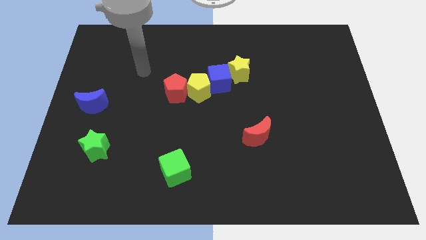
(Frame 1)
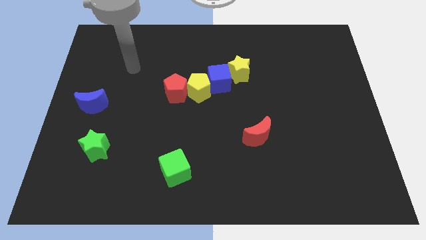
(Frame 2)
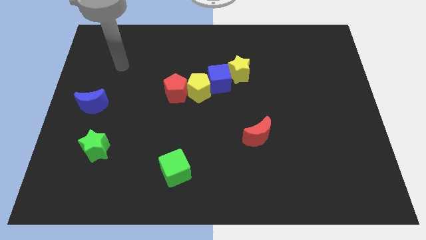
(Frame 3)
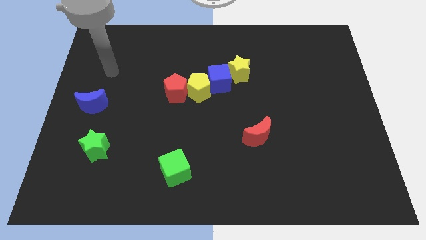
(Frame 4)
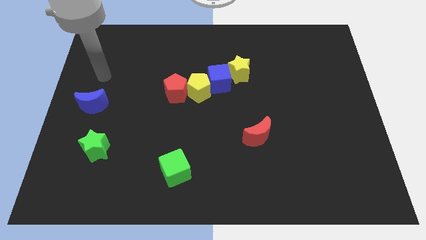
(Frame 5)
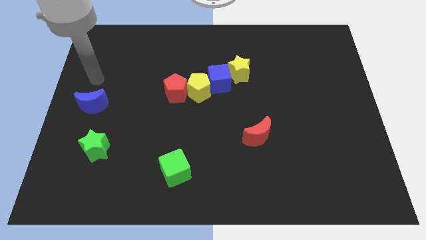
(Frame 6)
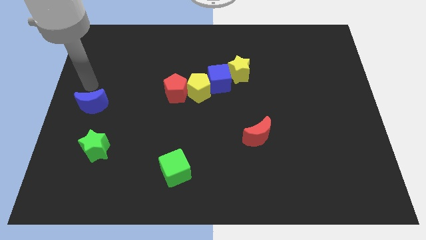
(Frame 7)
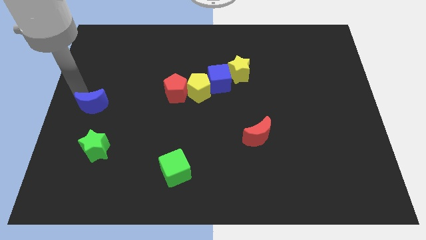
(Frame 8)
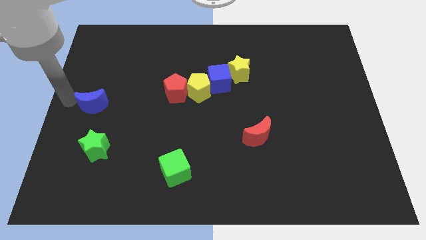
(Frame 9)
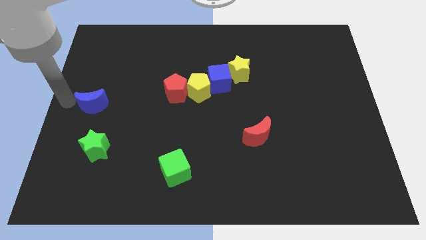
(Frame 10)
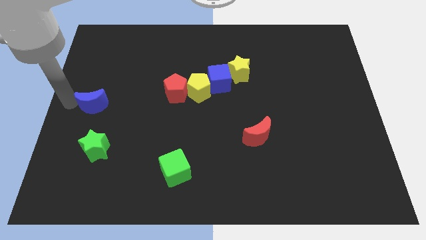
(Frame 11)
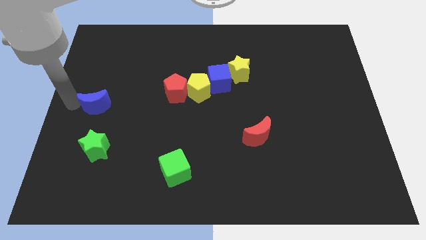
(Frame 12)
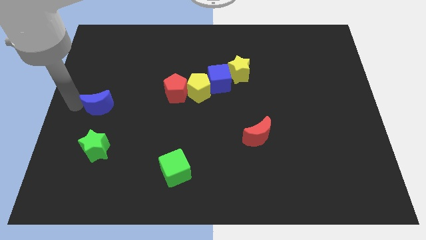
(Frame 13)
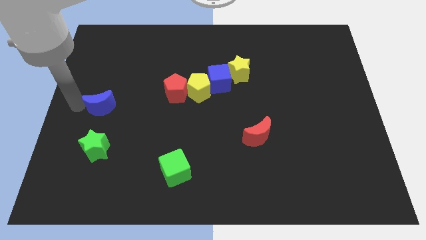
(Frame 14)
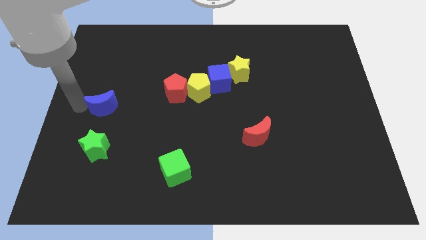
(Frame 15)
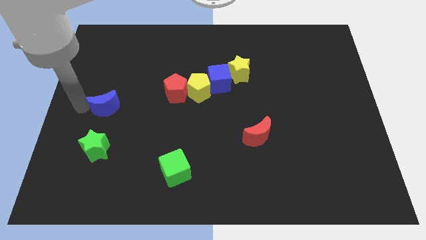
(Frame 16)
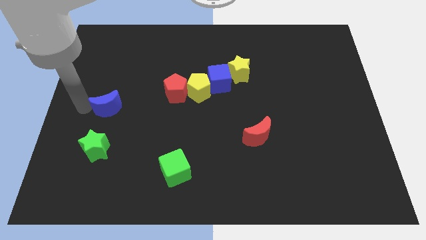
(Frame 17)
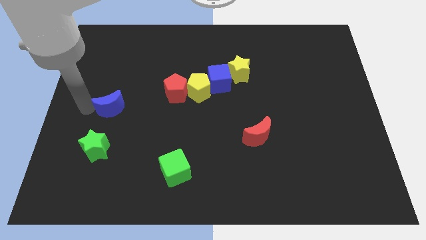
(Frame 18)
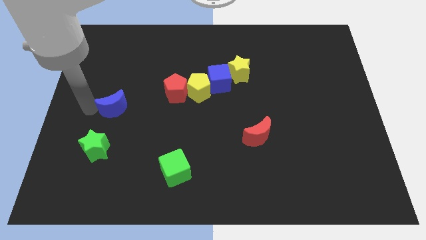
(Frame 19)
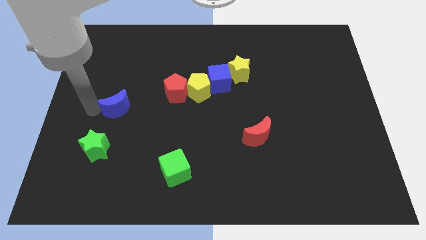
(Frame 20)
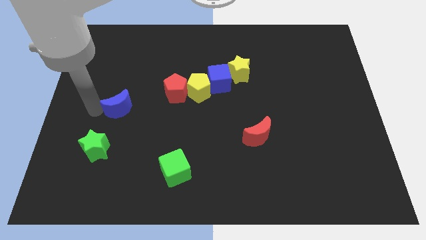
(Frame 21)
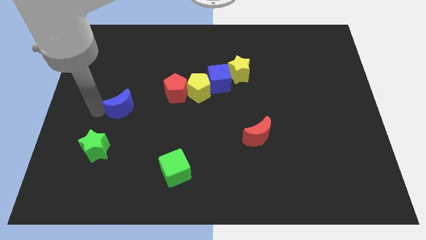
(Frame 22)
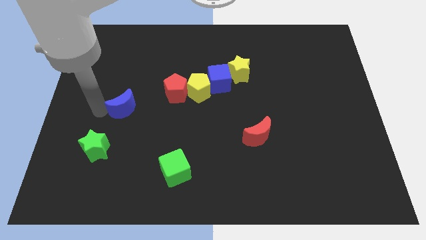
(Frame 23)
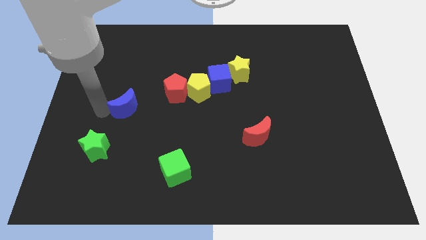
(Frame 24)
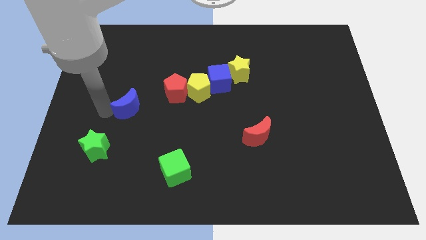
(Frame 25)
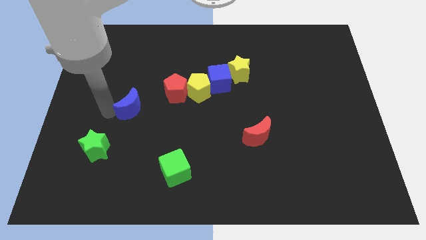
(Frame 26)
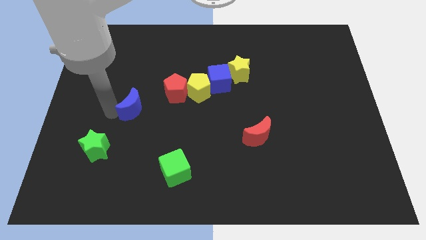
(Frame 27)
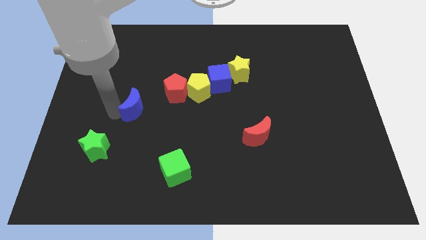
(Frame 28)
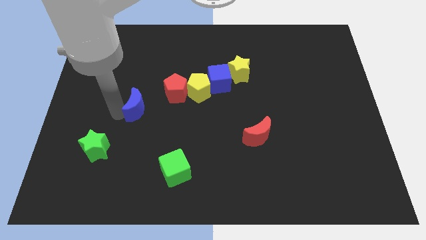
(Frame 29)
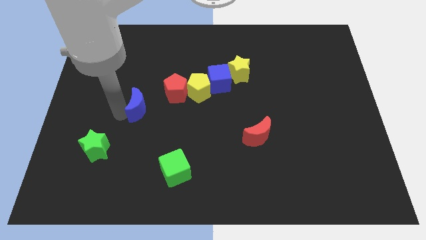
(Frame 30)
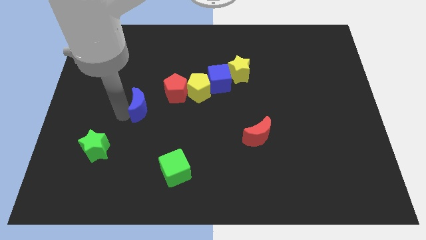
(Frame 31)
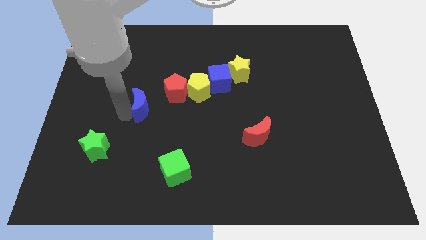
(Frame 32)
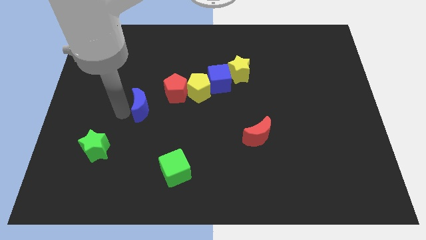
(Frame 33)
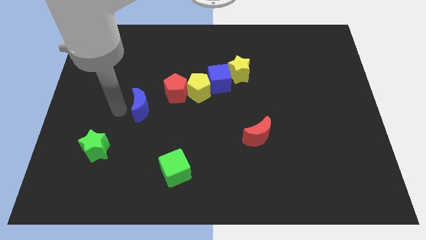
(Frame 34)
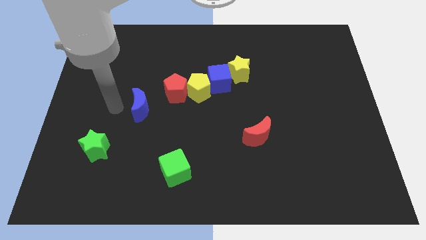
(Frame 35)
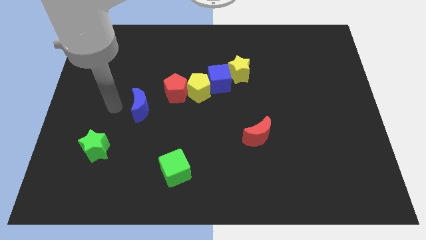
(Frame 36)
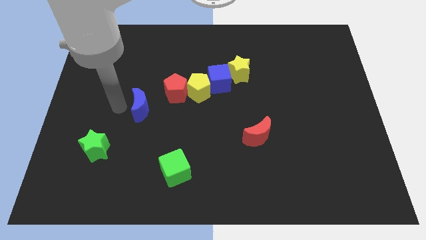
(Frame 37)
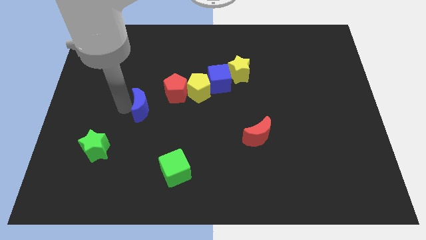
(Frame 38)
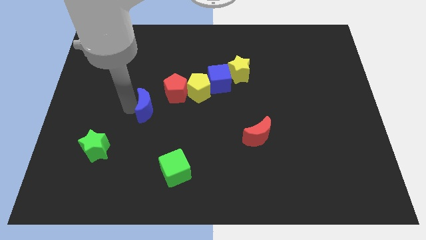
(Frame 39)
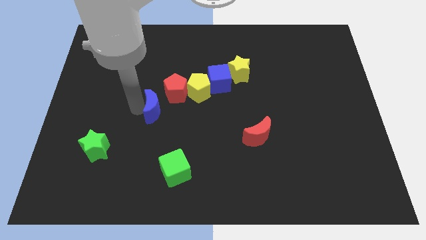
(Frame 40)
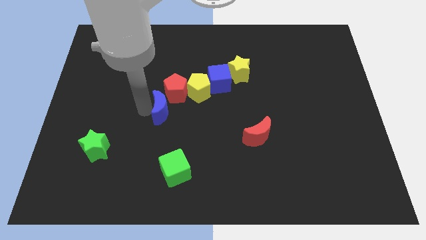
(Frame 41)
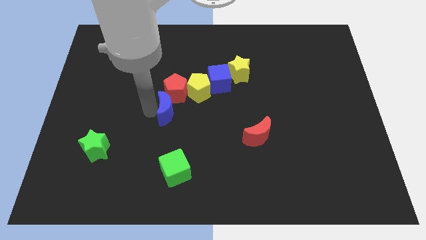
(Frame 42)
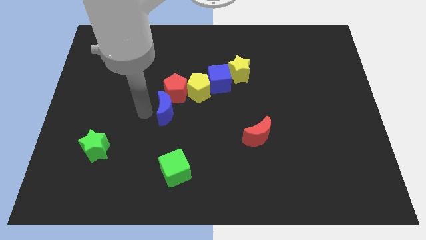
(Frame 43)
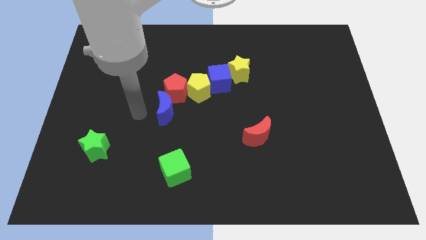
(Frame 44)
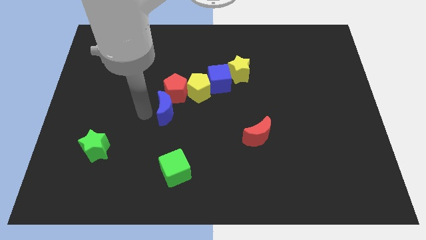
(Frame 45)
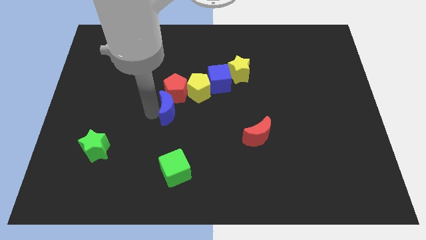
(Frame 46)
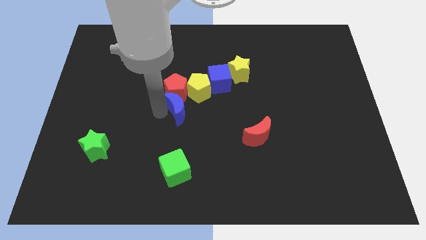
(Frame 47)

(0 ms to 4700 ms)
slide the blue moon right

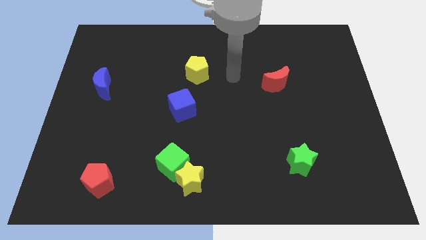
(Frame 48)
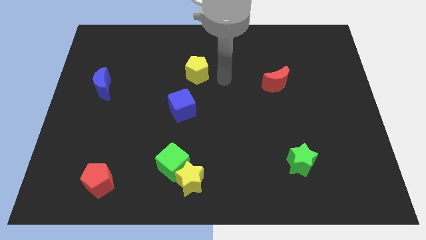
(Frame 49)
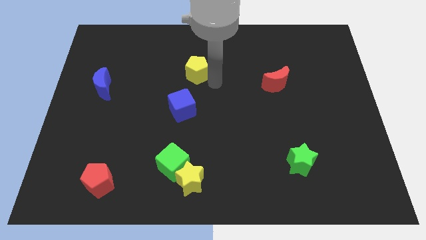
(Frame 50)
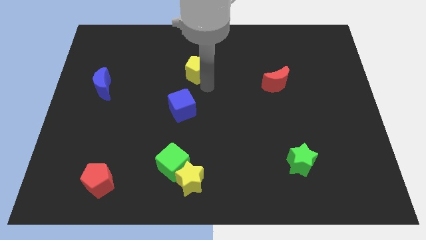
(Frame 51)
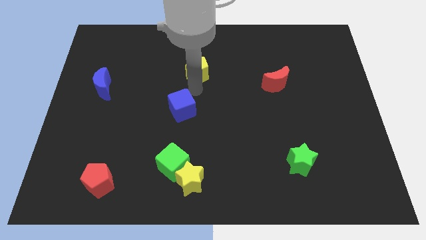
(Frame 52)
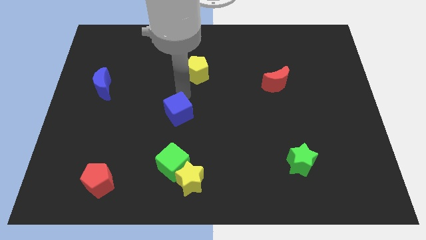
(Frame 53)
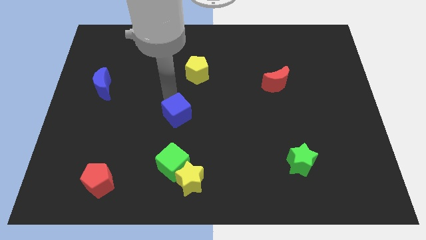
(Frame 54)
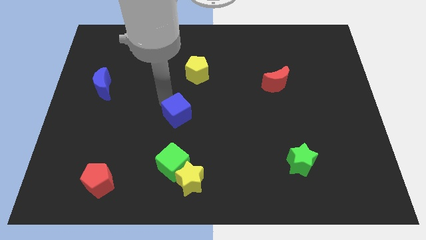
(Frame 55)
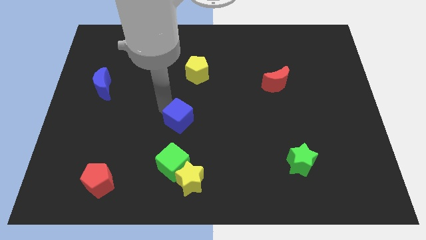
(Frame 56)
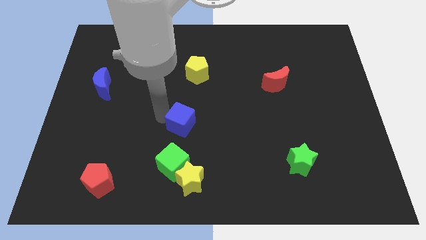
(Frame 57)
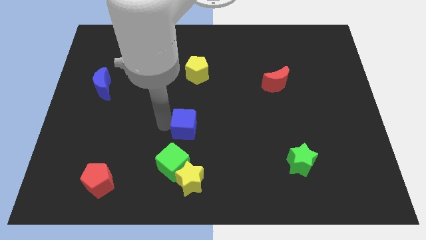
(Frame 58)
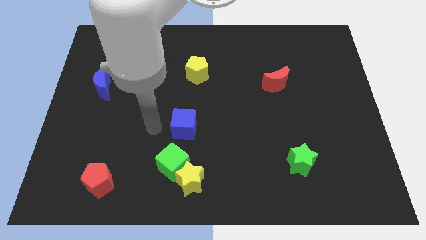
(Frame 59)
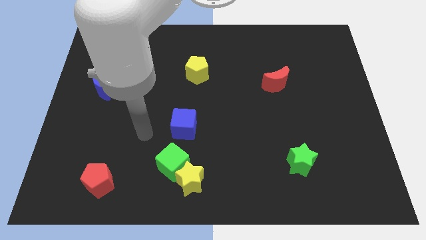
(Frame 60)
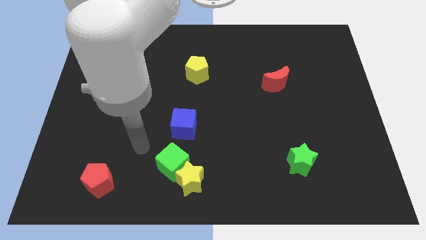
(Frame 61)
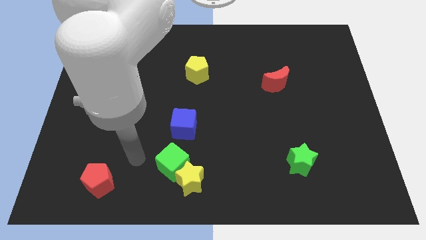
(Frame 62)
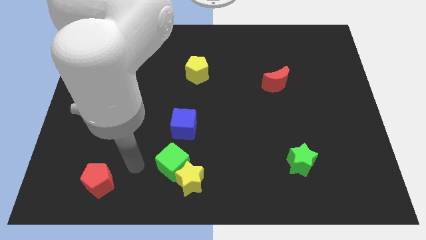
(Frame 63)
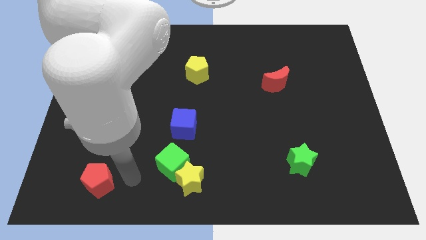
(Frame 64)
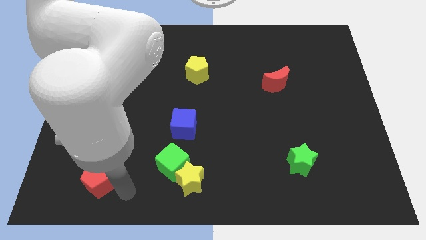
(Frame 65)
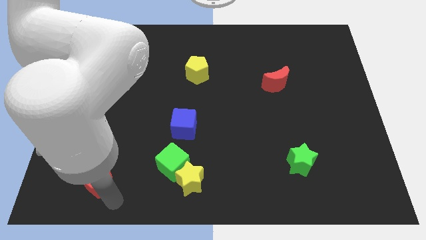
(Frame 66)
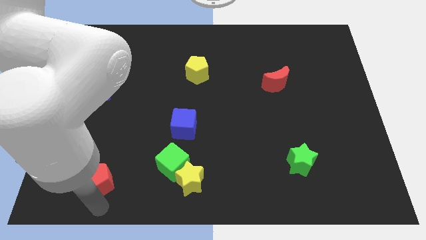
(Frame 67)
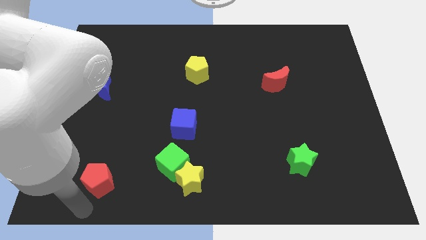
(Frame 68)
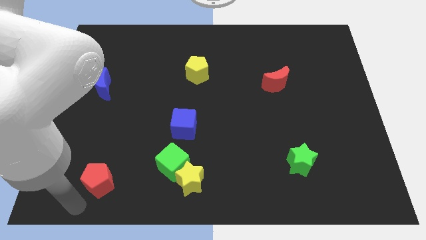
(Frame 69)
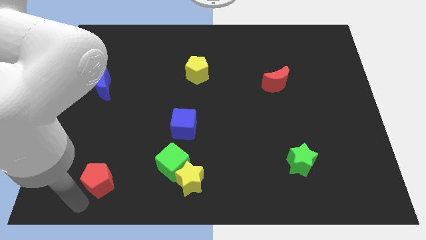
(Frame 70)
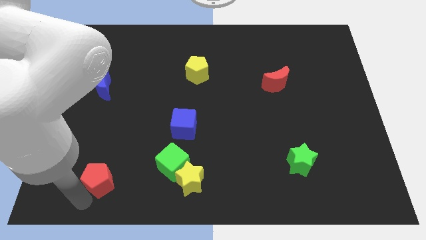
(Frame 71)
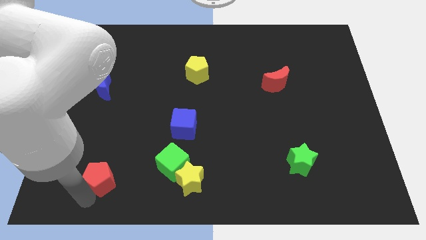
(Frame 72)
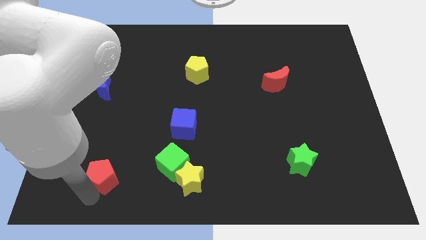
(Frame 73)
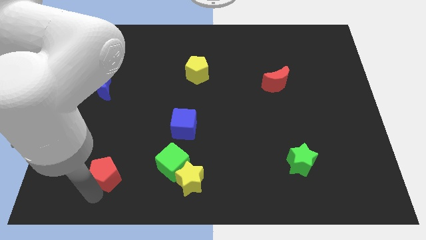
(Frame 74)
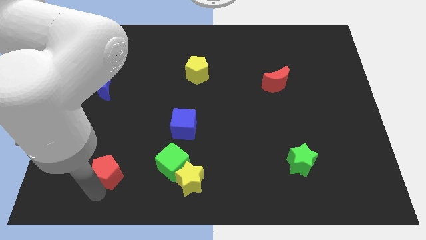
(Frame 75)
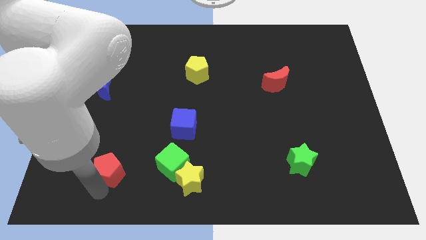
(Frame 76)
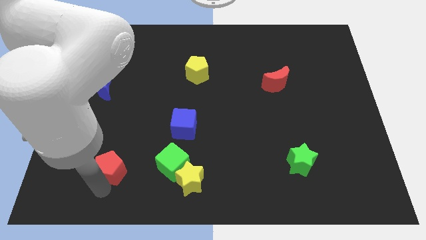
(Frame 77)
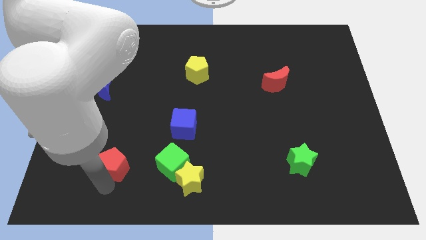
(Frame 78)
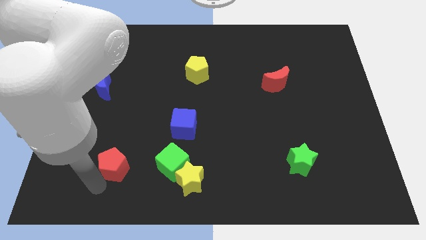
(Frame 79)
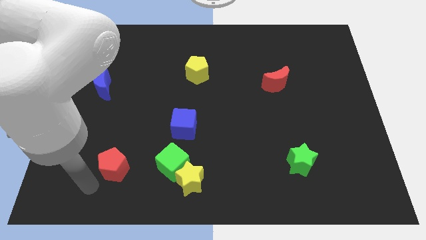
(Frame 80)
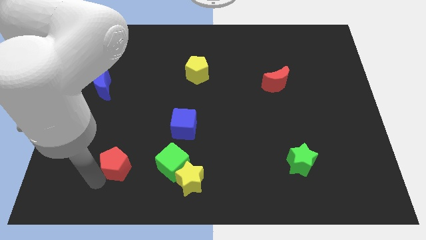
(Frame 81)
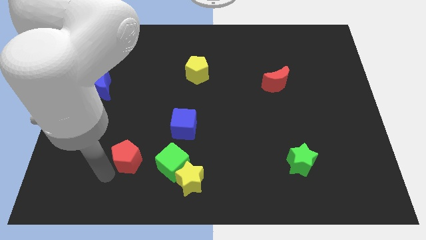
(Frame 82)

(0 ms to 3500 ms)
slightly move the red pentagon up and then to the right
